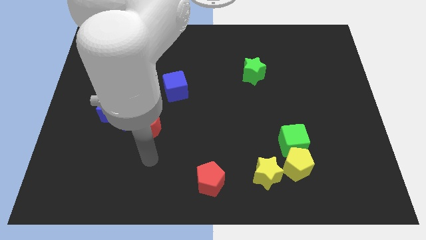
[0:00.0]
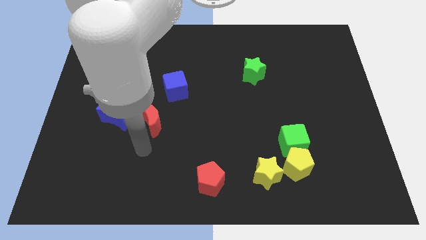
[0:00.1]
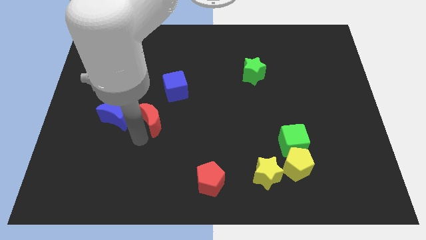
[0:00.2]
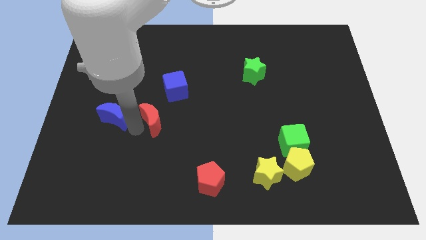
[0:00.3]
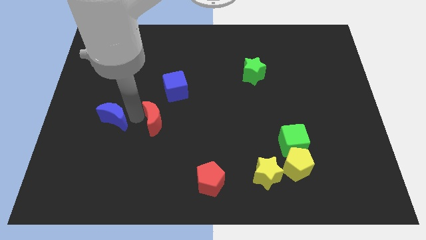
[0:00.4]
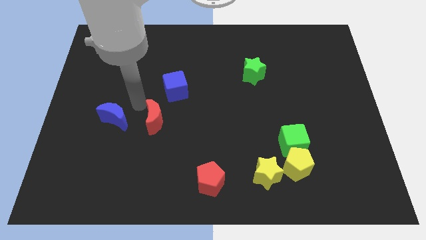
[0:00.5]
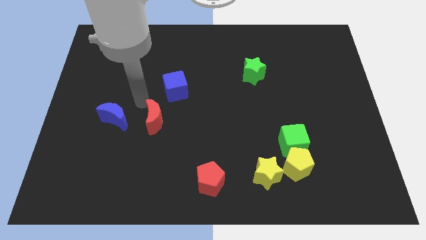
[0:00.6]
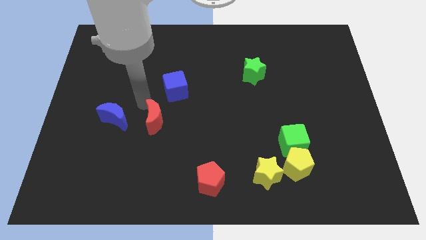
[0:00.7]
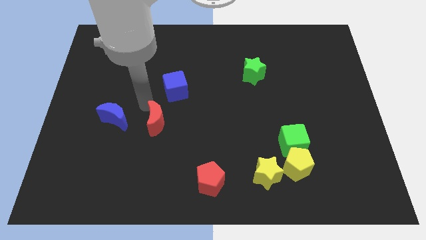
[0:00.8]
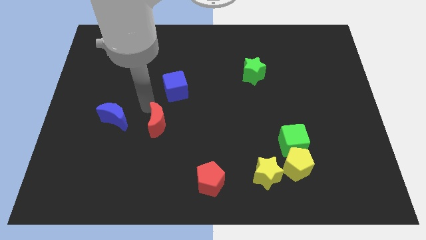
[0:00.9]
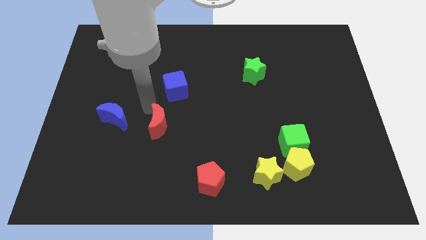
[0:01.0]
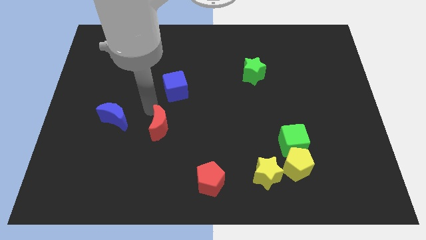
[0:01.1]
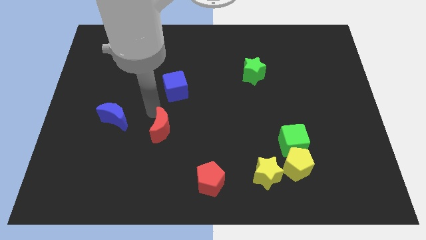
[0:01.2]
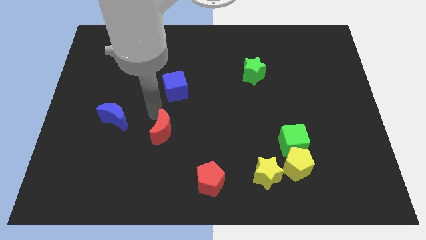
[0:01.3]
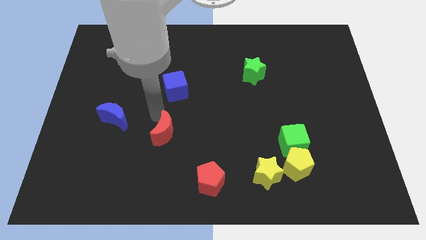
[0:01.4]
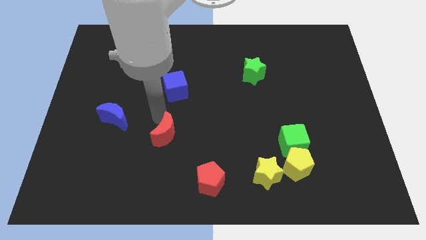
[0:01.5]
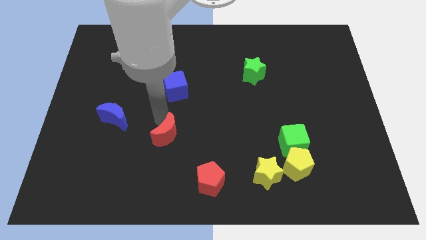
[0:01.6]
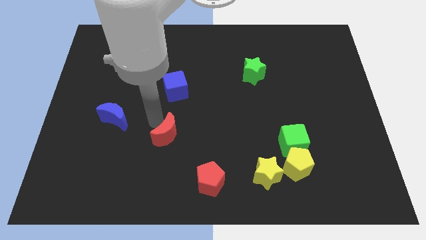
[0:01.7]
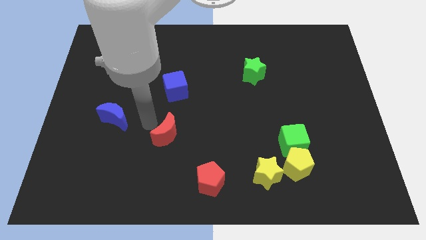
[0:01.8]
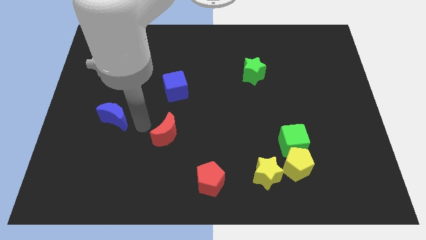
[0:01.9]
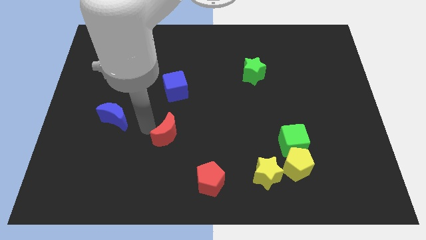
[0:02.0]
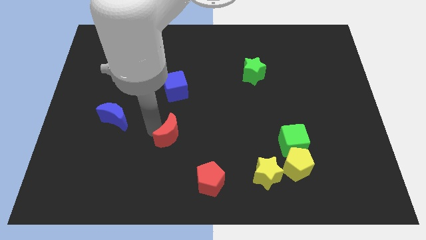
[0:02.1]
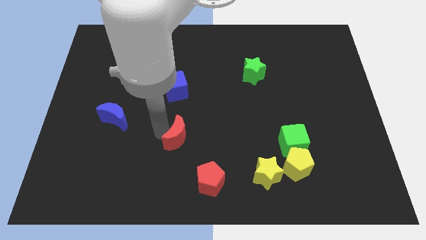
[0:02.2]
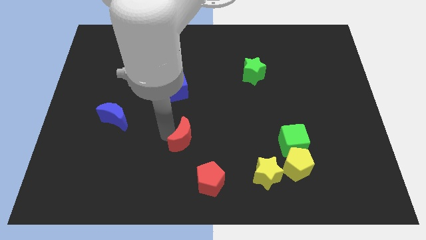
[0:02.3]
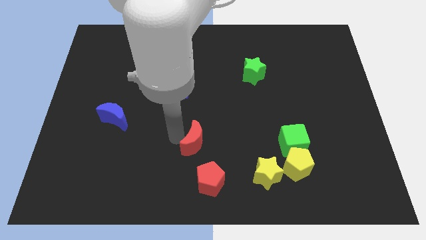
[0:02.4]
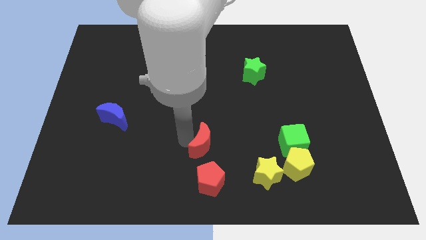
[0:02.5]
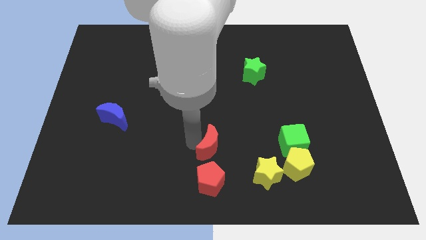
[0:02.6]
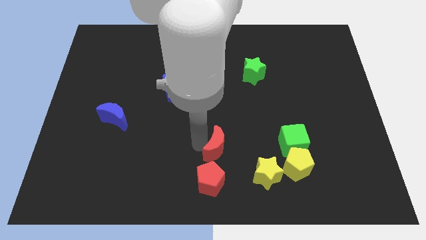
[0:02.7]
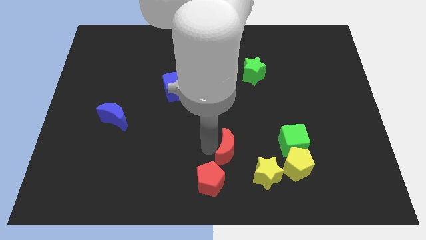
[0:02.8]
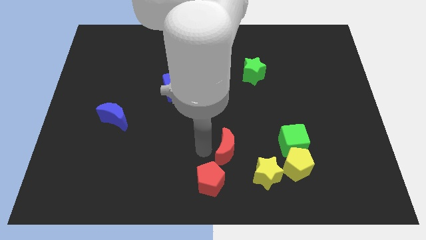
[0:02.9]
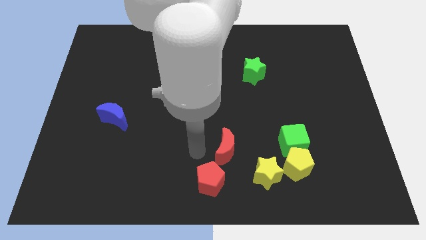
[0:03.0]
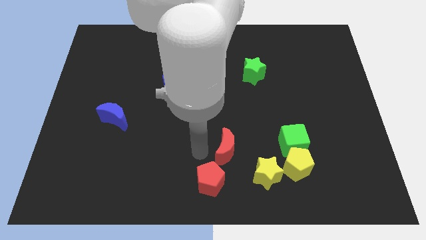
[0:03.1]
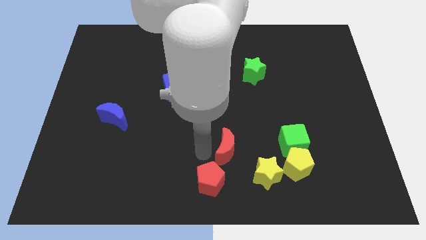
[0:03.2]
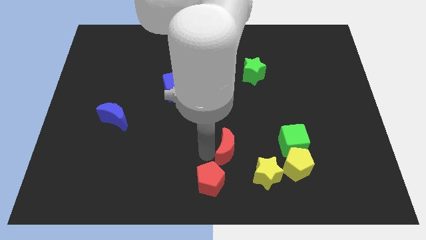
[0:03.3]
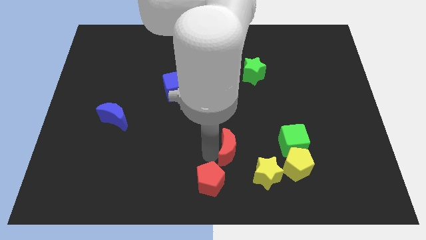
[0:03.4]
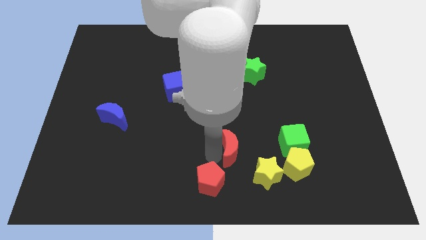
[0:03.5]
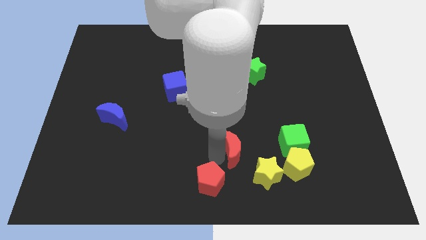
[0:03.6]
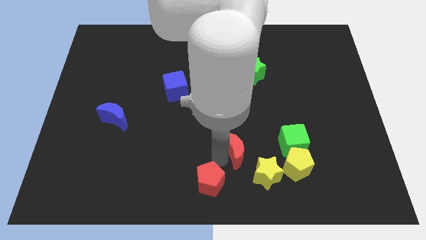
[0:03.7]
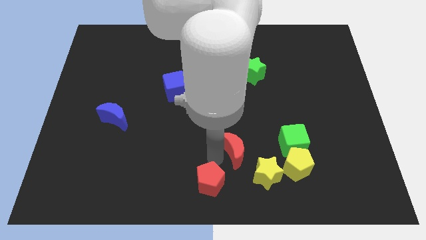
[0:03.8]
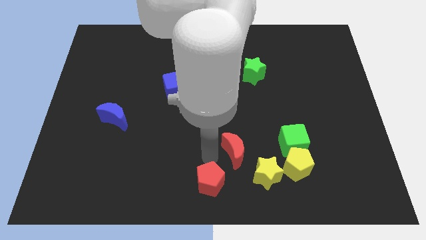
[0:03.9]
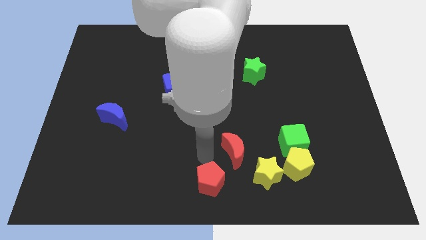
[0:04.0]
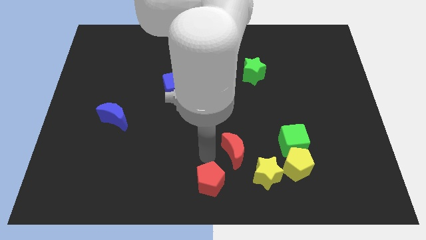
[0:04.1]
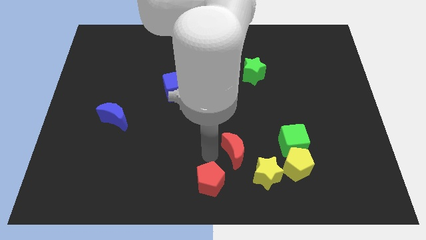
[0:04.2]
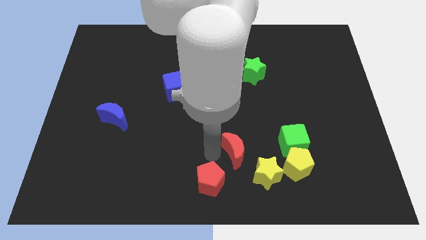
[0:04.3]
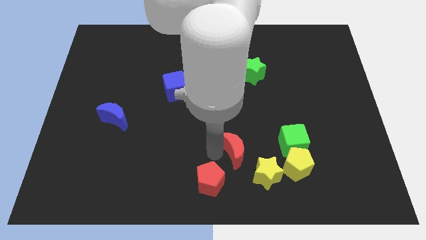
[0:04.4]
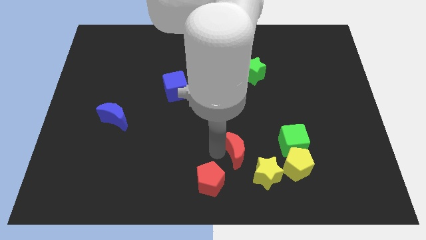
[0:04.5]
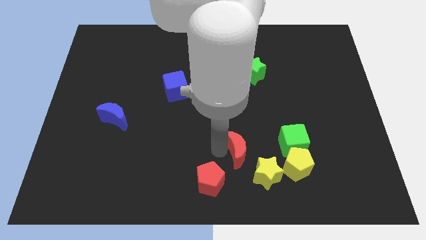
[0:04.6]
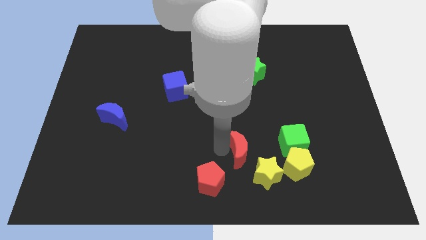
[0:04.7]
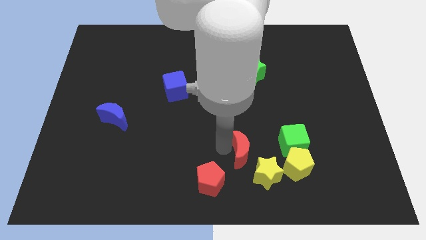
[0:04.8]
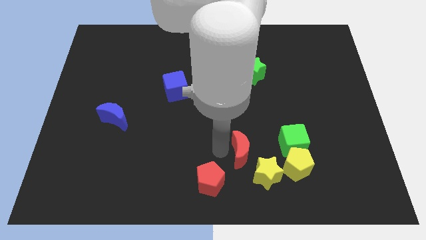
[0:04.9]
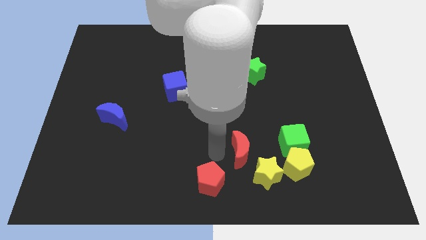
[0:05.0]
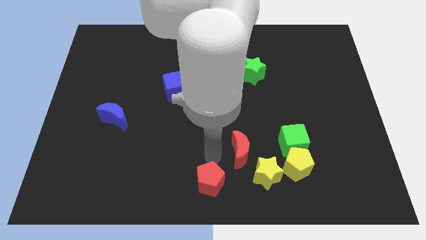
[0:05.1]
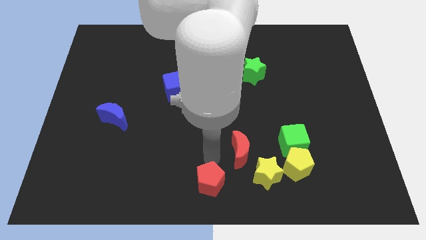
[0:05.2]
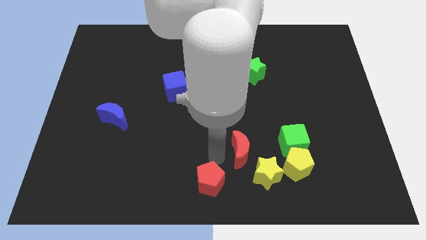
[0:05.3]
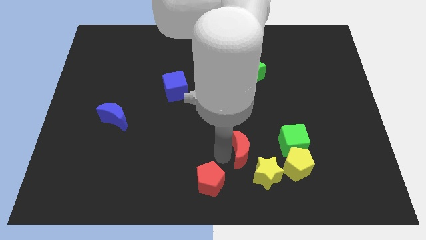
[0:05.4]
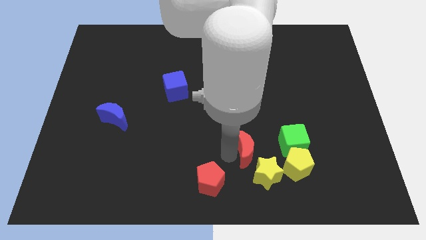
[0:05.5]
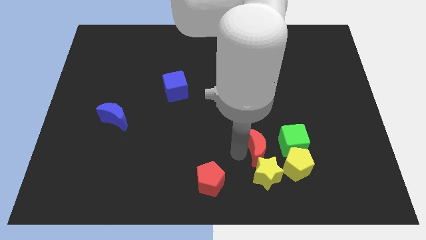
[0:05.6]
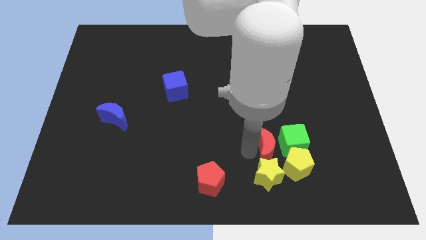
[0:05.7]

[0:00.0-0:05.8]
push the red moon close to the green cube

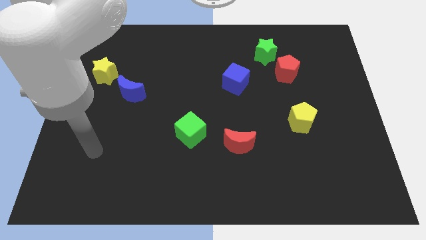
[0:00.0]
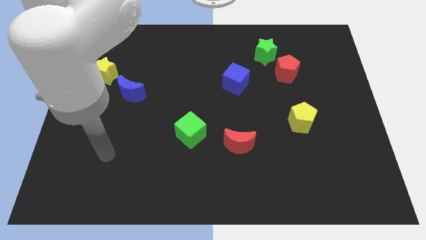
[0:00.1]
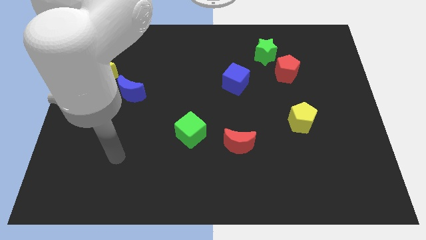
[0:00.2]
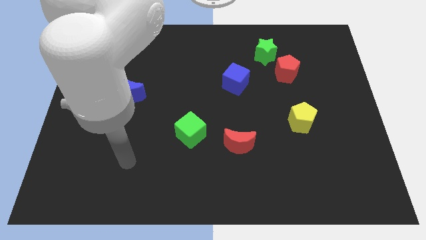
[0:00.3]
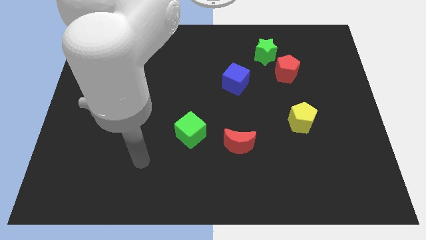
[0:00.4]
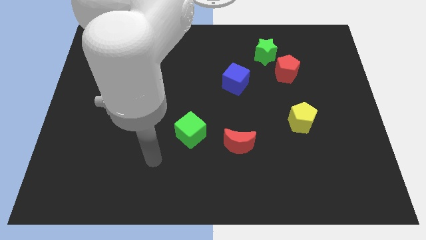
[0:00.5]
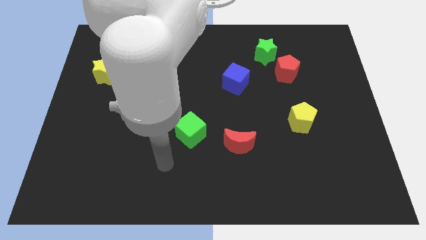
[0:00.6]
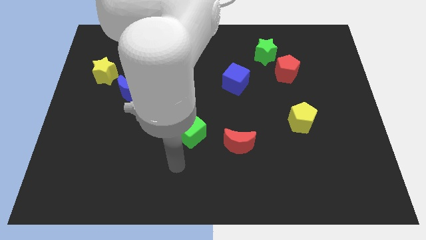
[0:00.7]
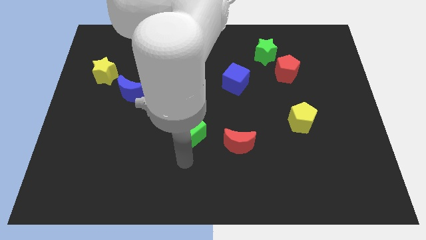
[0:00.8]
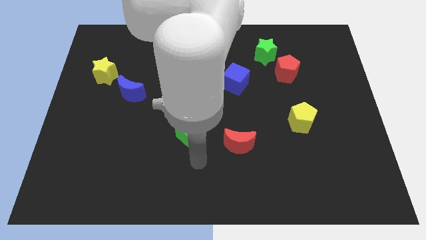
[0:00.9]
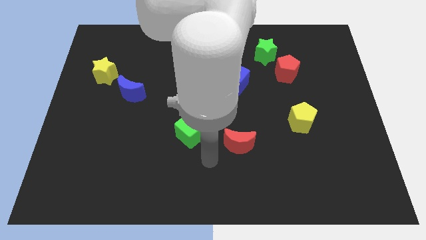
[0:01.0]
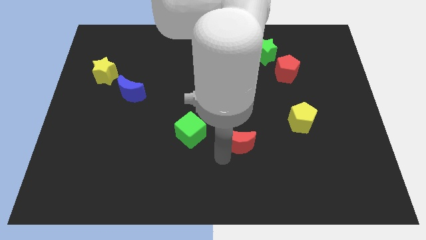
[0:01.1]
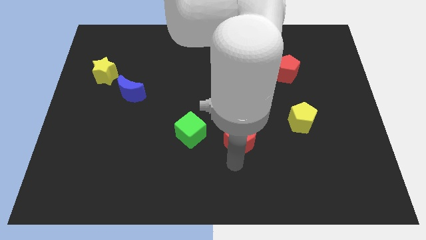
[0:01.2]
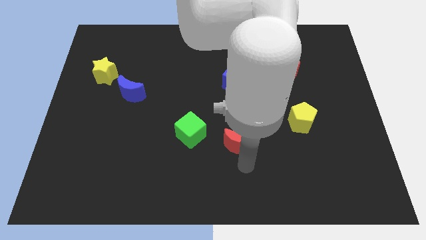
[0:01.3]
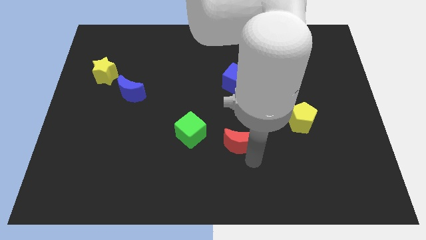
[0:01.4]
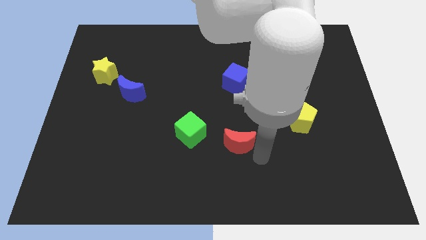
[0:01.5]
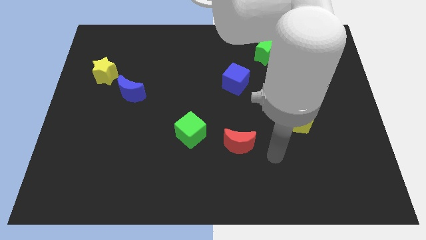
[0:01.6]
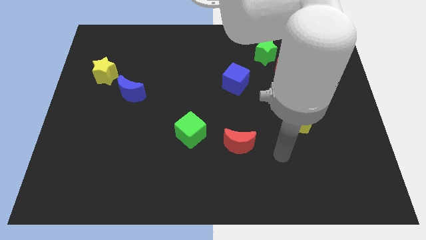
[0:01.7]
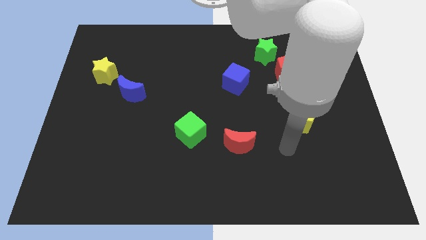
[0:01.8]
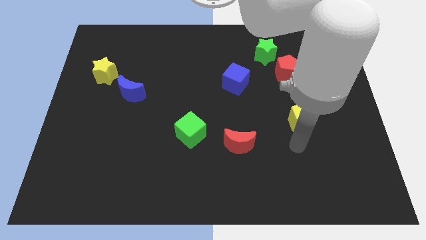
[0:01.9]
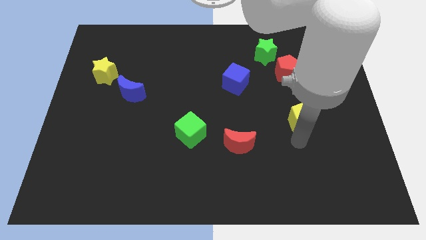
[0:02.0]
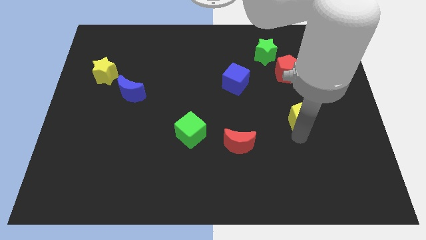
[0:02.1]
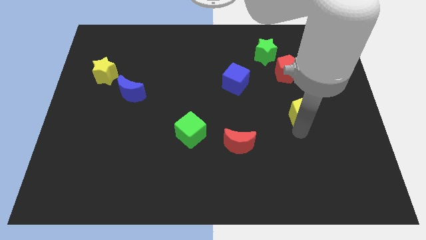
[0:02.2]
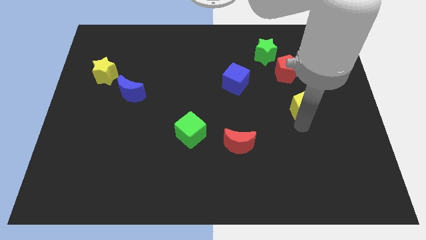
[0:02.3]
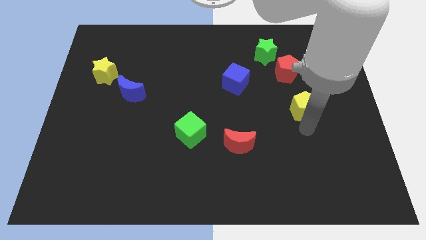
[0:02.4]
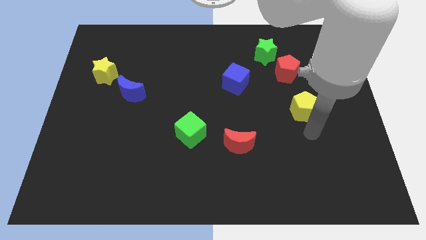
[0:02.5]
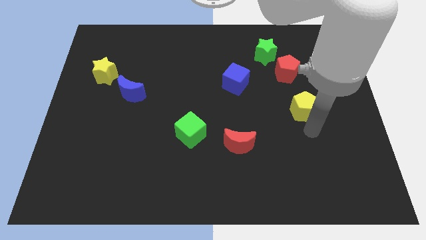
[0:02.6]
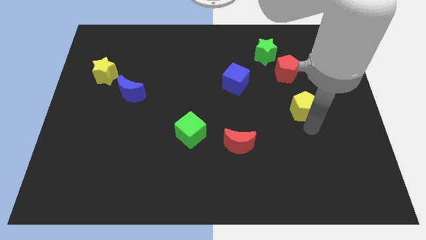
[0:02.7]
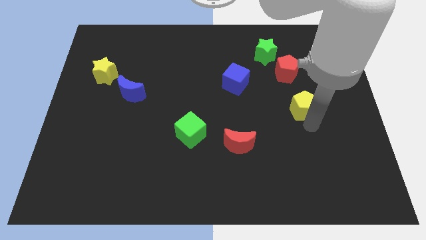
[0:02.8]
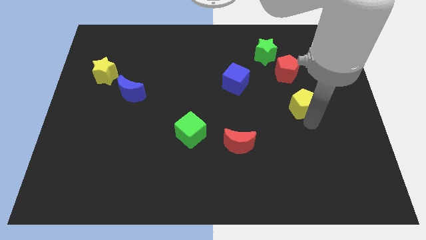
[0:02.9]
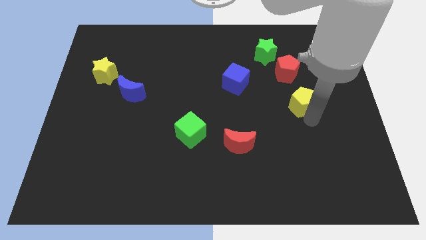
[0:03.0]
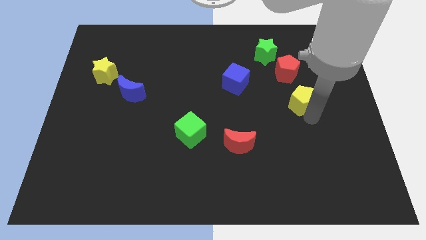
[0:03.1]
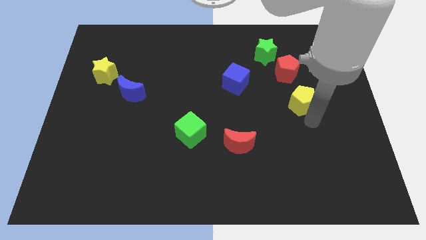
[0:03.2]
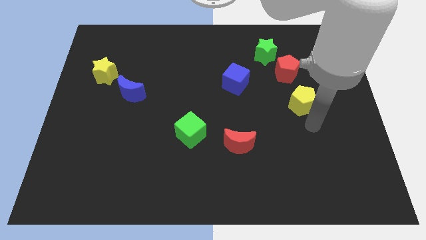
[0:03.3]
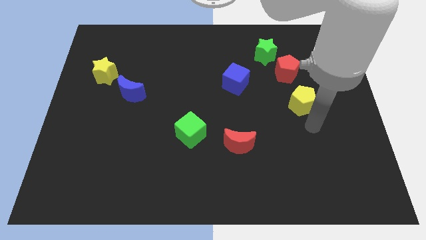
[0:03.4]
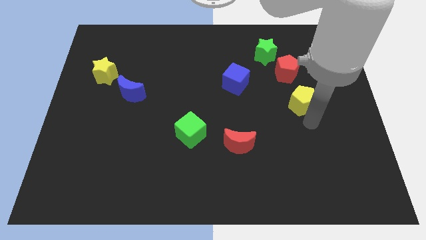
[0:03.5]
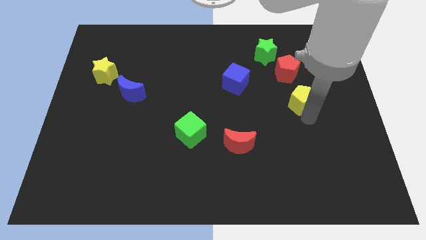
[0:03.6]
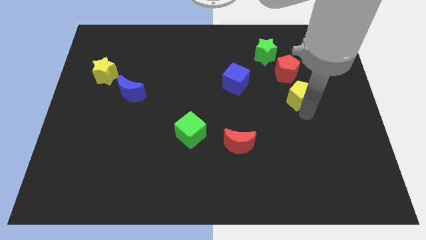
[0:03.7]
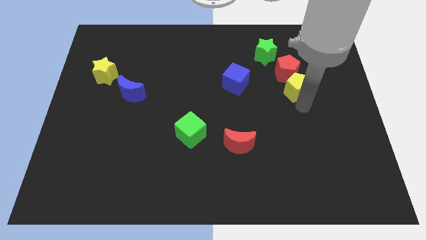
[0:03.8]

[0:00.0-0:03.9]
put the yellow pentagon towards the red pentagon
